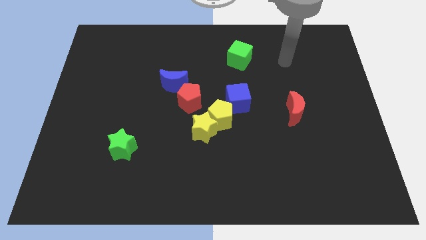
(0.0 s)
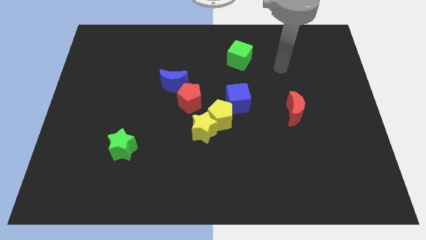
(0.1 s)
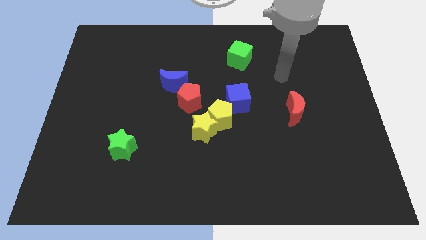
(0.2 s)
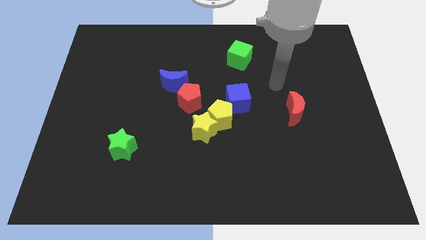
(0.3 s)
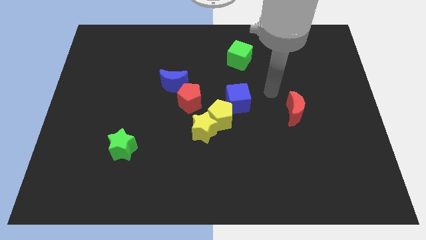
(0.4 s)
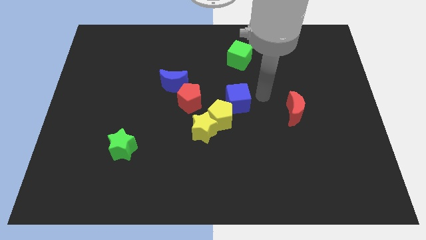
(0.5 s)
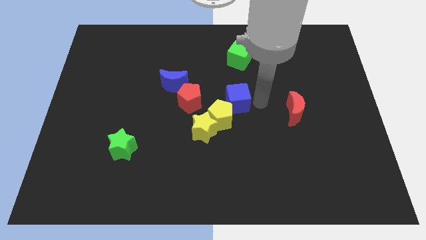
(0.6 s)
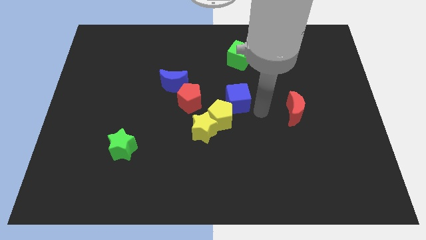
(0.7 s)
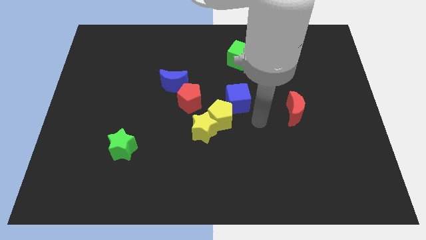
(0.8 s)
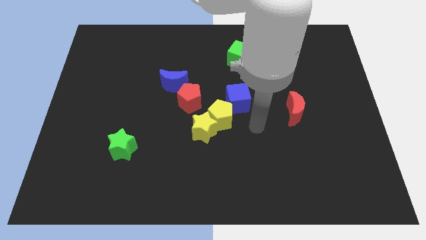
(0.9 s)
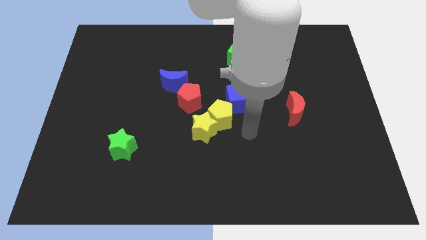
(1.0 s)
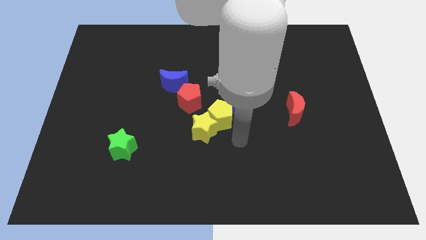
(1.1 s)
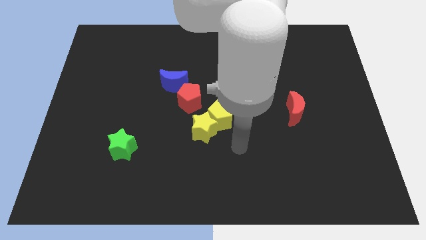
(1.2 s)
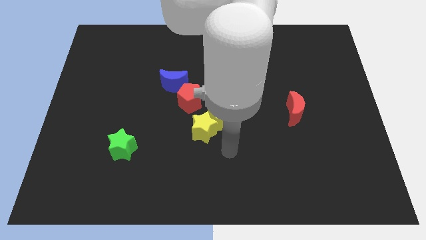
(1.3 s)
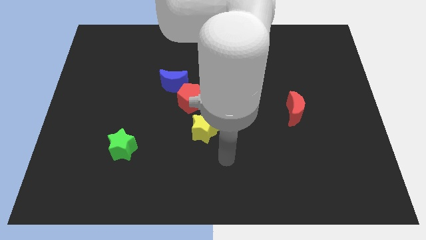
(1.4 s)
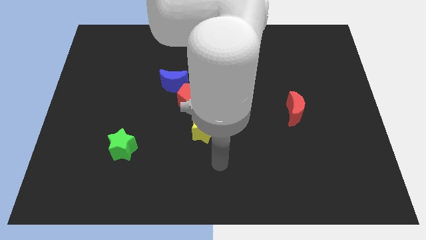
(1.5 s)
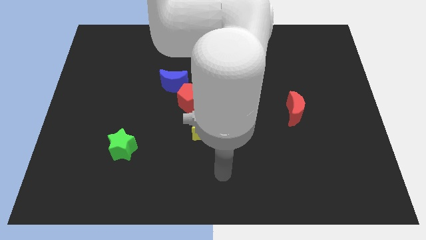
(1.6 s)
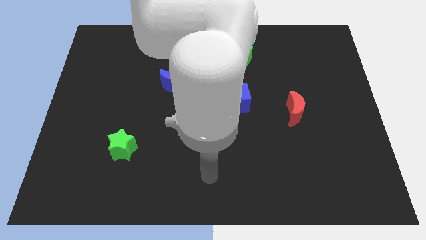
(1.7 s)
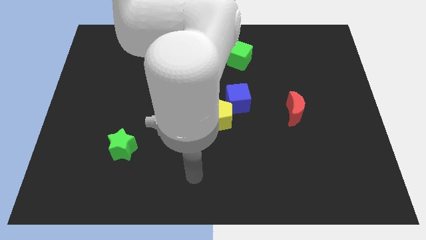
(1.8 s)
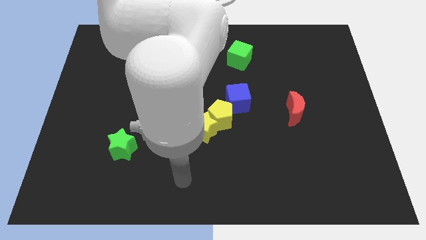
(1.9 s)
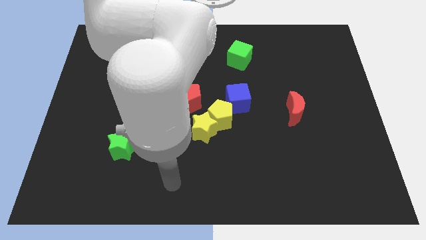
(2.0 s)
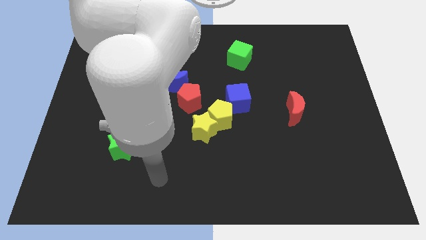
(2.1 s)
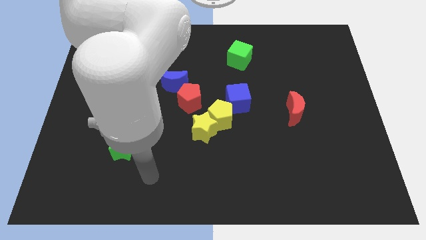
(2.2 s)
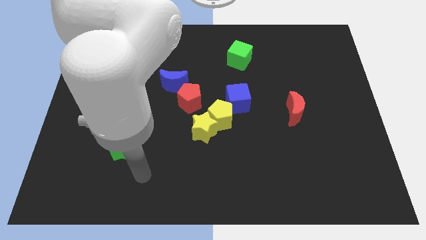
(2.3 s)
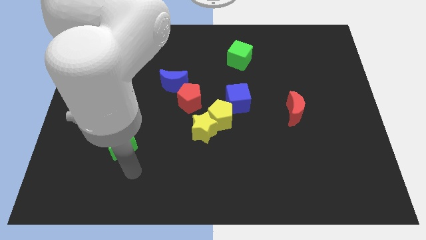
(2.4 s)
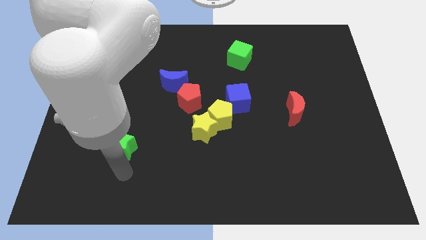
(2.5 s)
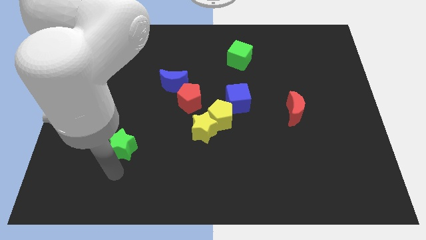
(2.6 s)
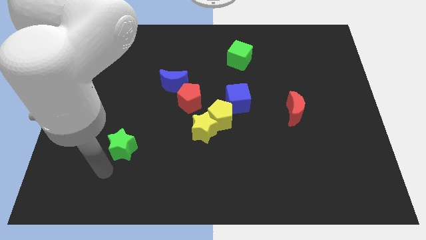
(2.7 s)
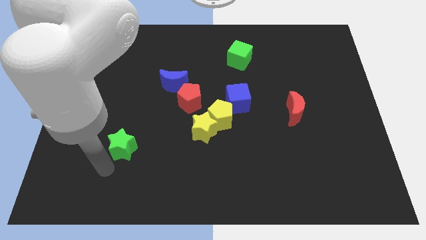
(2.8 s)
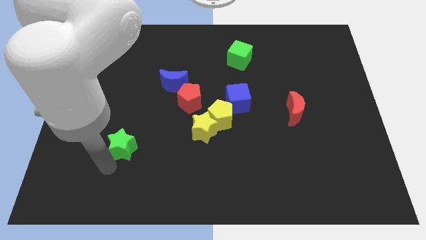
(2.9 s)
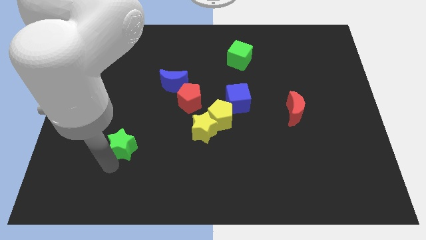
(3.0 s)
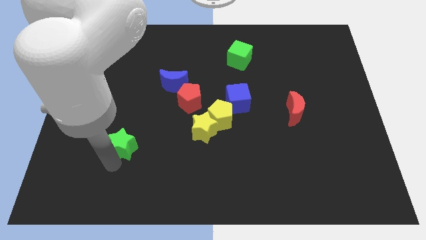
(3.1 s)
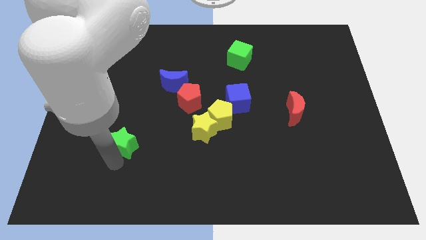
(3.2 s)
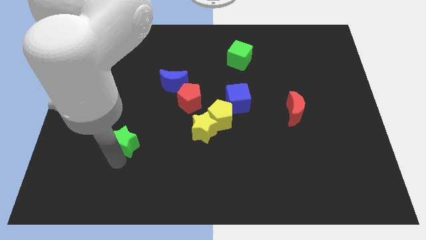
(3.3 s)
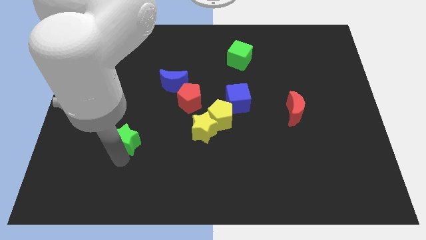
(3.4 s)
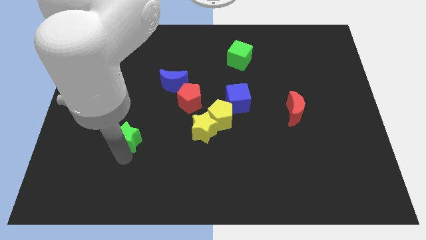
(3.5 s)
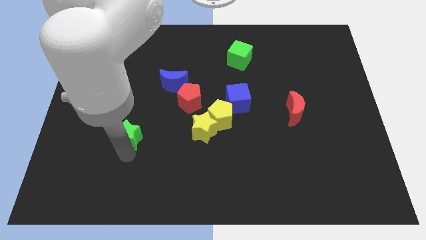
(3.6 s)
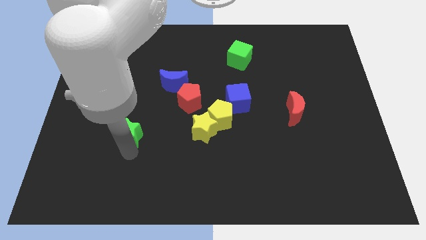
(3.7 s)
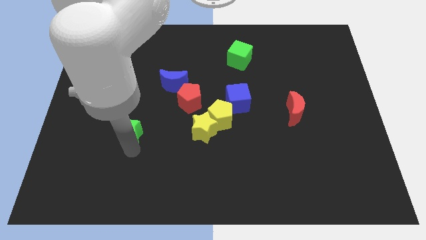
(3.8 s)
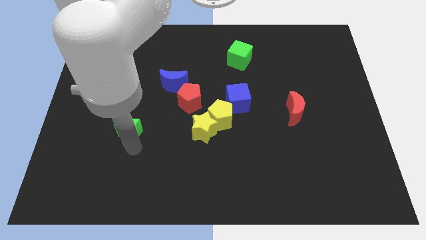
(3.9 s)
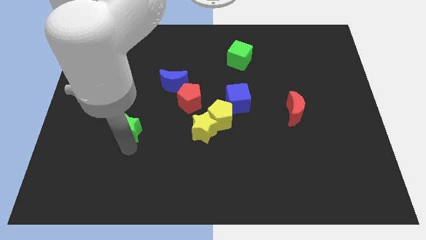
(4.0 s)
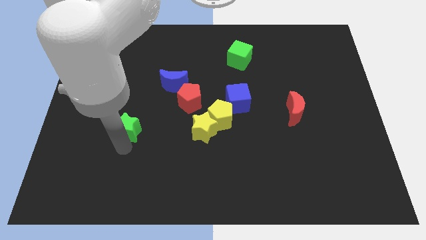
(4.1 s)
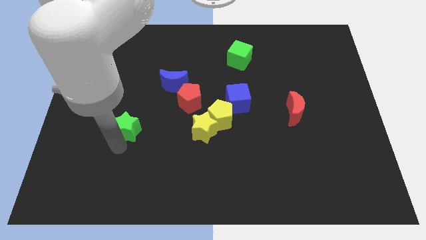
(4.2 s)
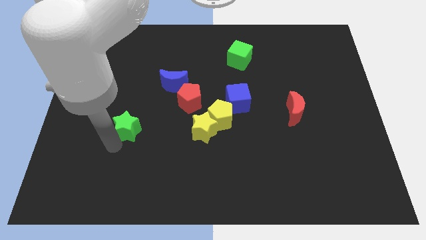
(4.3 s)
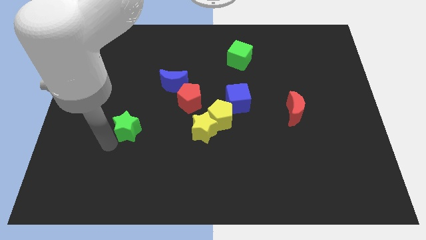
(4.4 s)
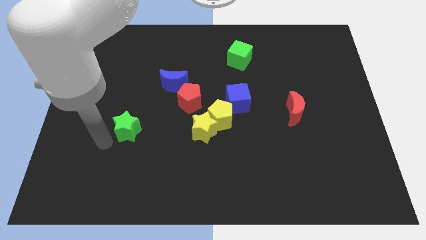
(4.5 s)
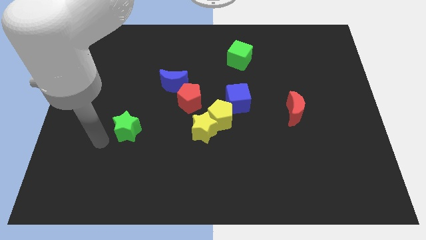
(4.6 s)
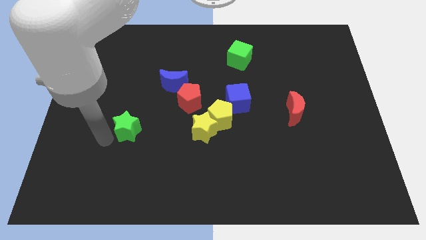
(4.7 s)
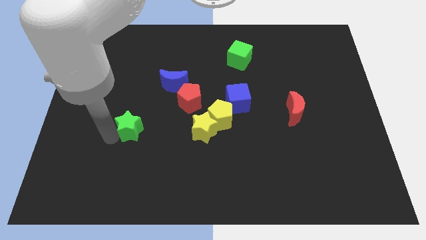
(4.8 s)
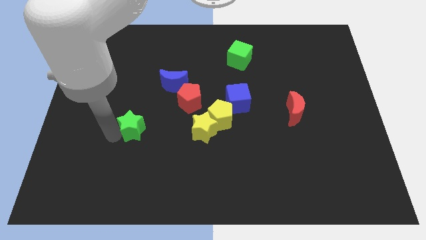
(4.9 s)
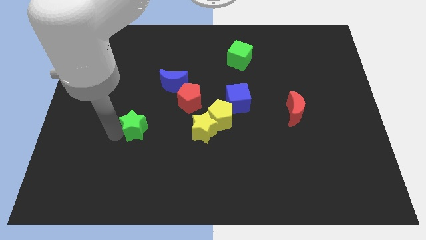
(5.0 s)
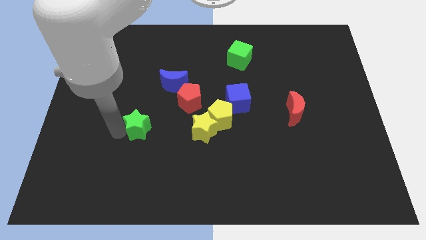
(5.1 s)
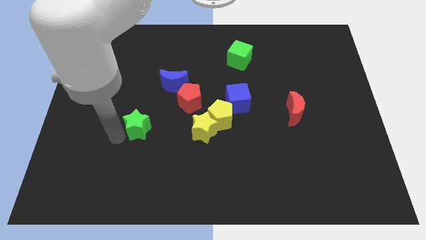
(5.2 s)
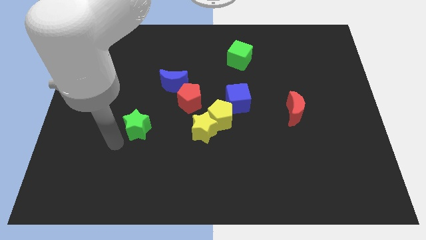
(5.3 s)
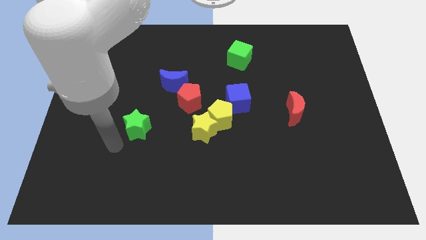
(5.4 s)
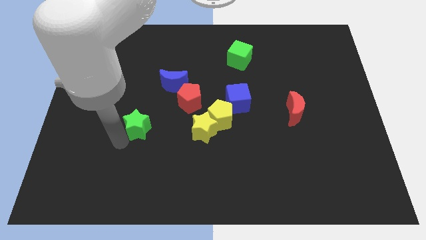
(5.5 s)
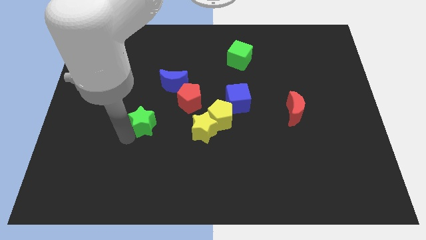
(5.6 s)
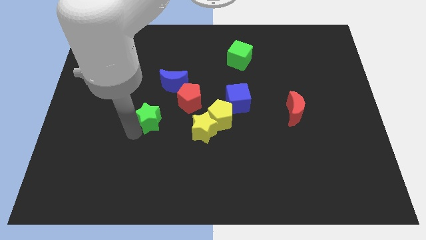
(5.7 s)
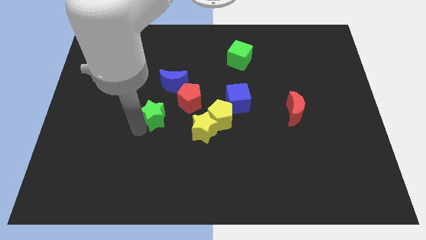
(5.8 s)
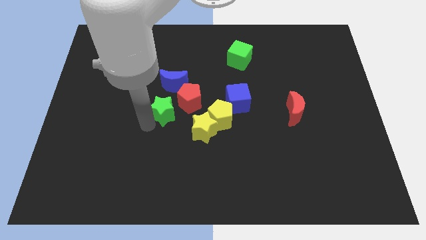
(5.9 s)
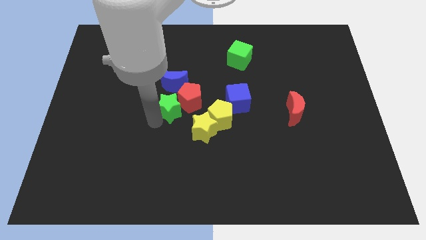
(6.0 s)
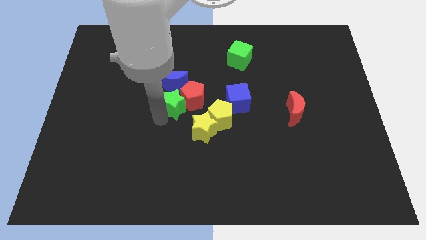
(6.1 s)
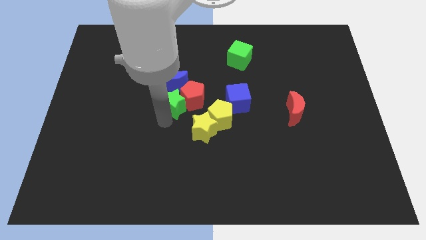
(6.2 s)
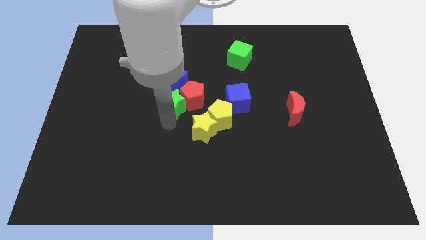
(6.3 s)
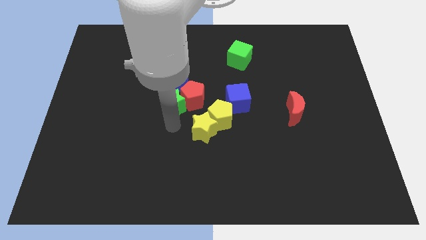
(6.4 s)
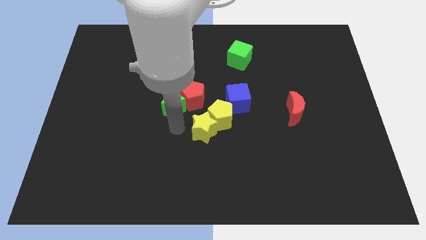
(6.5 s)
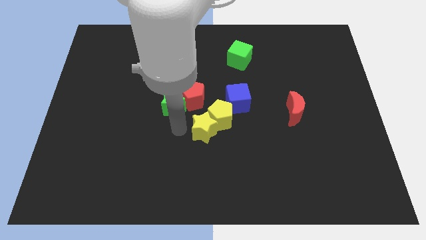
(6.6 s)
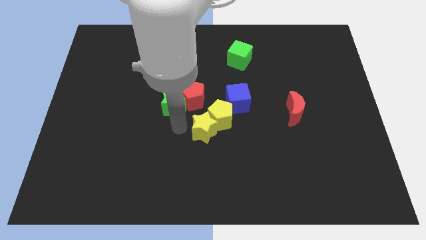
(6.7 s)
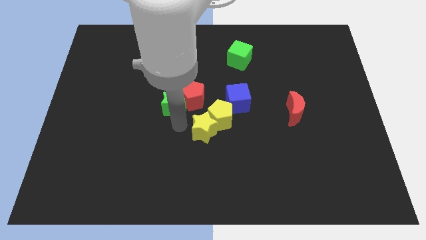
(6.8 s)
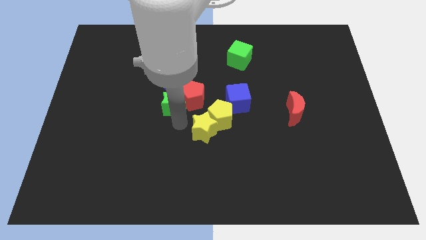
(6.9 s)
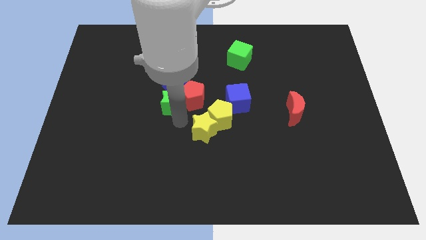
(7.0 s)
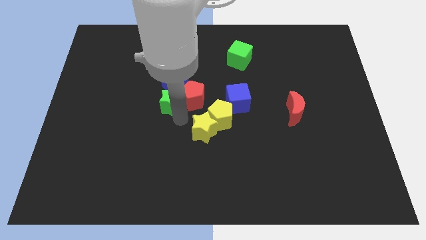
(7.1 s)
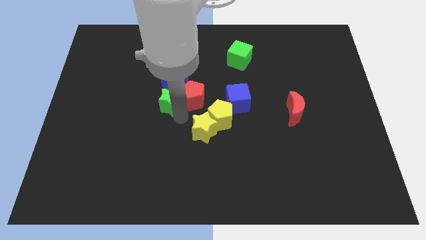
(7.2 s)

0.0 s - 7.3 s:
push the green star to the blue moon

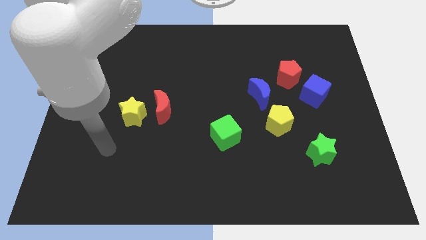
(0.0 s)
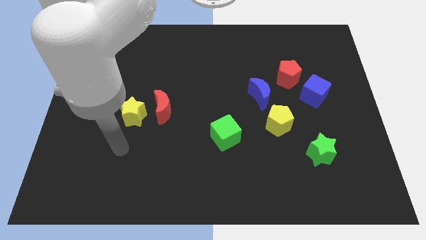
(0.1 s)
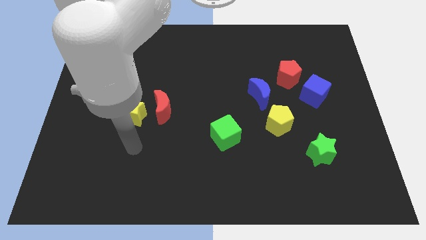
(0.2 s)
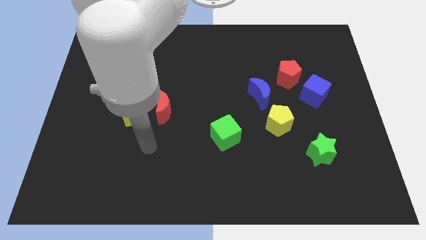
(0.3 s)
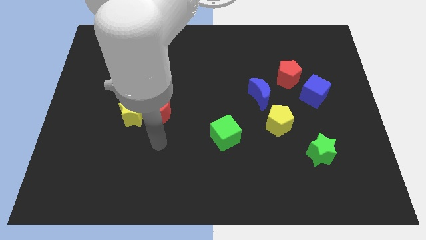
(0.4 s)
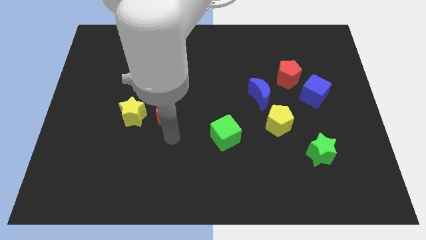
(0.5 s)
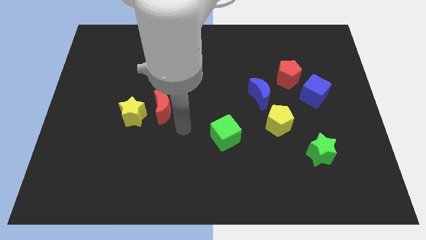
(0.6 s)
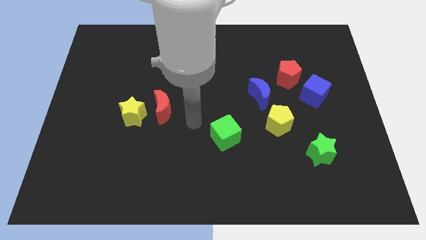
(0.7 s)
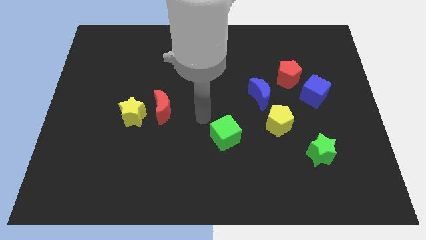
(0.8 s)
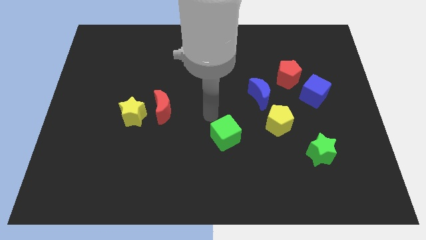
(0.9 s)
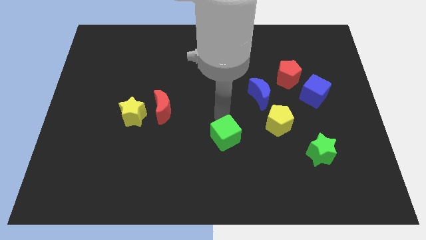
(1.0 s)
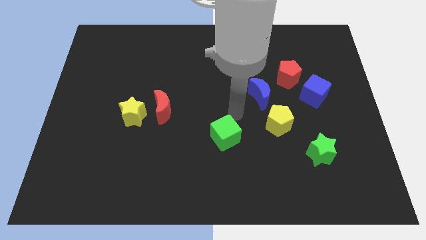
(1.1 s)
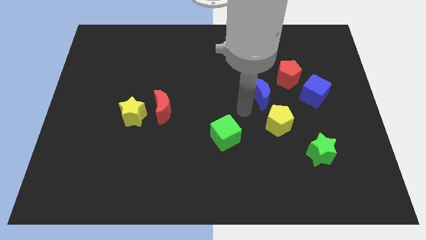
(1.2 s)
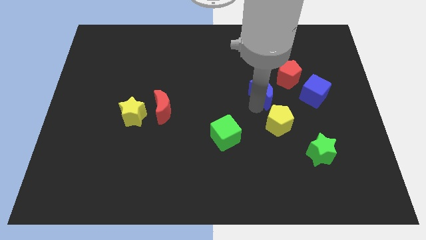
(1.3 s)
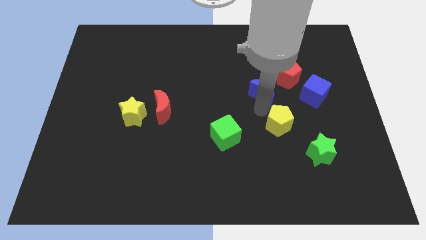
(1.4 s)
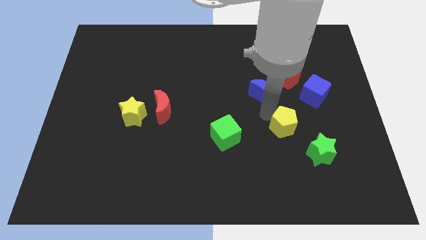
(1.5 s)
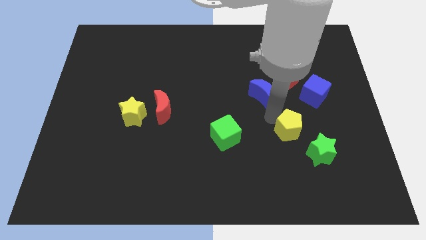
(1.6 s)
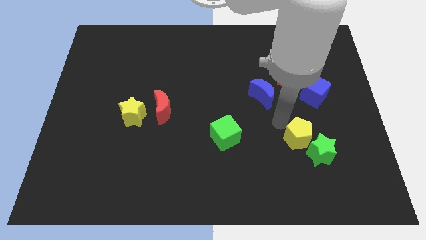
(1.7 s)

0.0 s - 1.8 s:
put the yellow pentagon next to the green star
